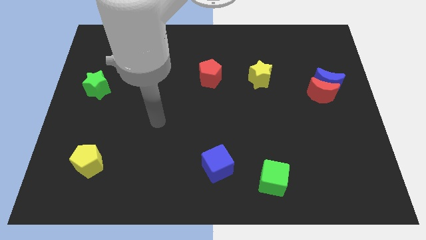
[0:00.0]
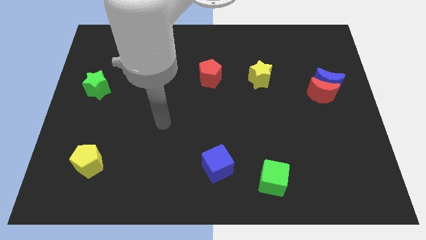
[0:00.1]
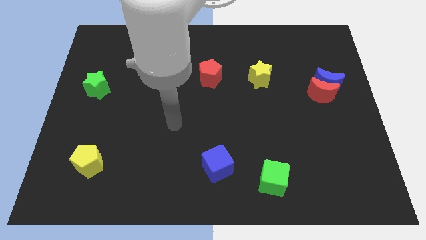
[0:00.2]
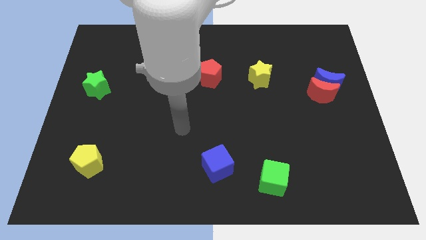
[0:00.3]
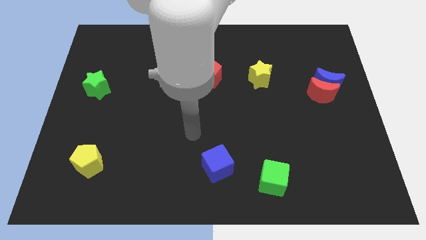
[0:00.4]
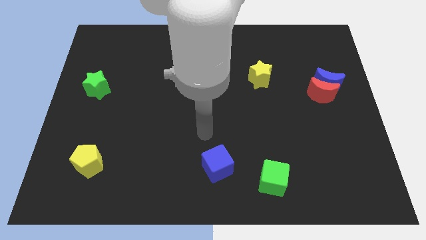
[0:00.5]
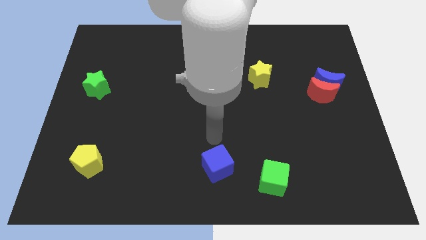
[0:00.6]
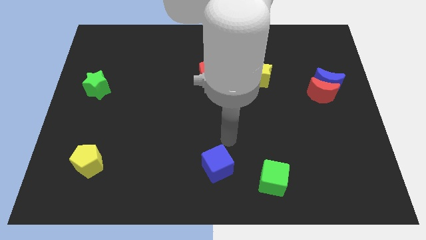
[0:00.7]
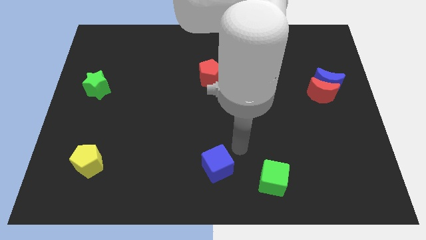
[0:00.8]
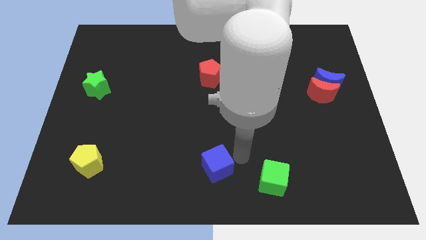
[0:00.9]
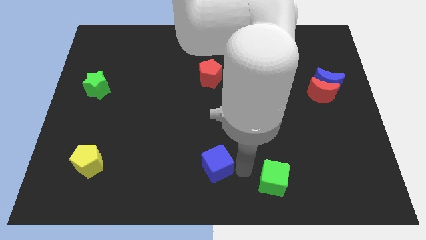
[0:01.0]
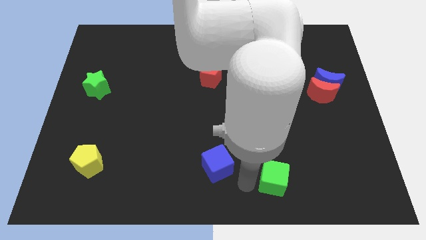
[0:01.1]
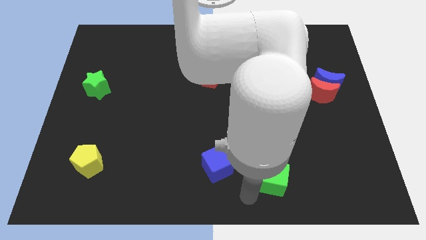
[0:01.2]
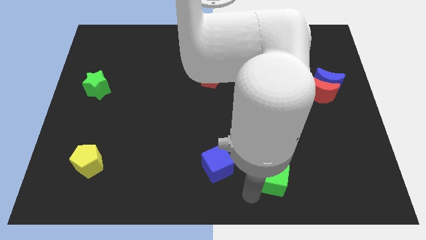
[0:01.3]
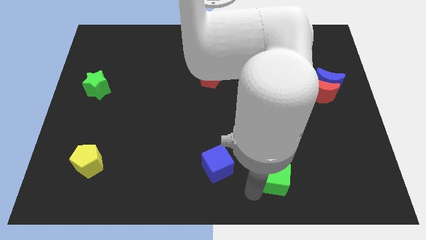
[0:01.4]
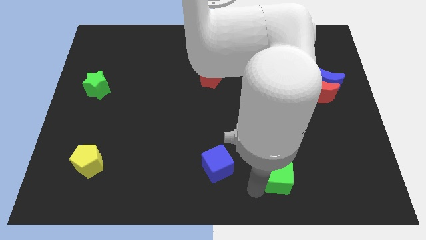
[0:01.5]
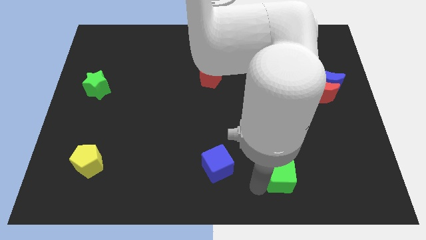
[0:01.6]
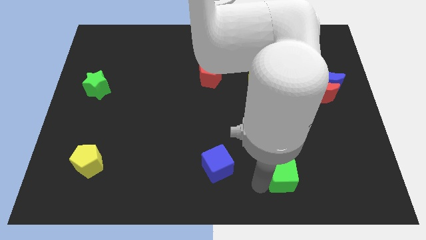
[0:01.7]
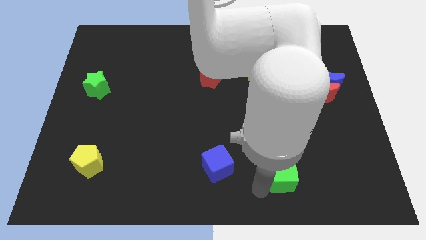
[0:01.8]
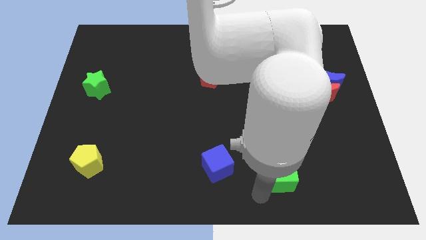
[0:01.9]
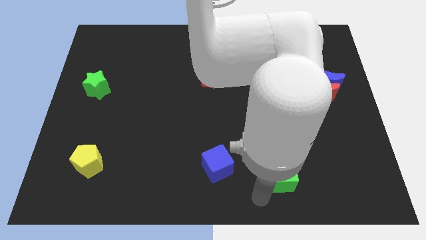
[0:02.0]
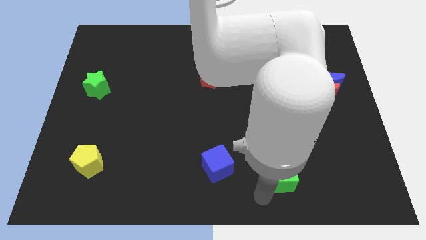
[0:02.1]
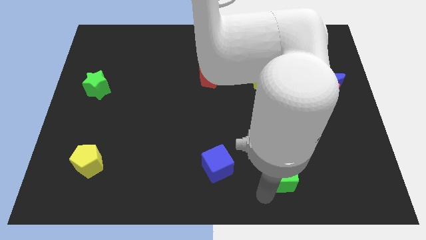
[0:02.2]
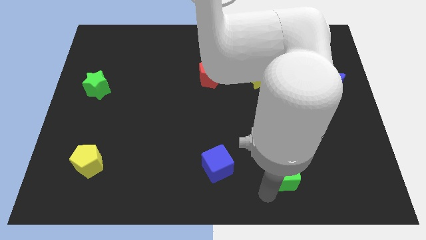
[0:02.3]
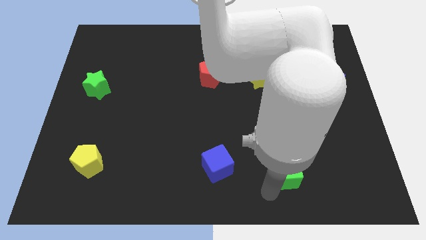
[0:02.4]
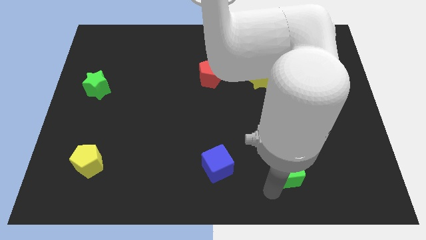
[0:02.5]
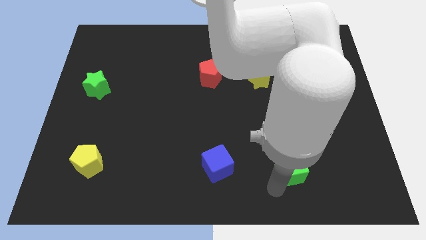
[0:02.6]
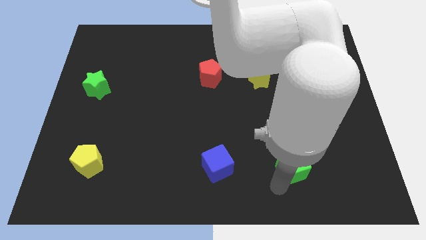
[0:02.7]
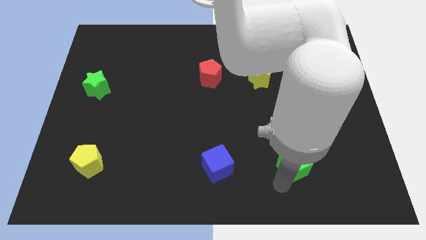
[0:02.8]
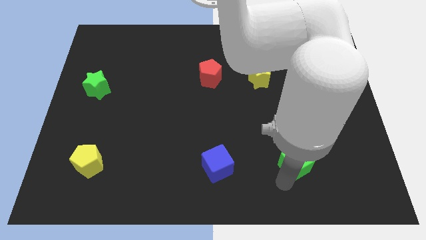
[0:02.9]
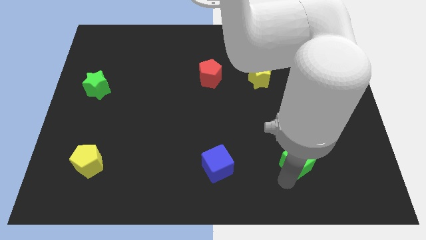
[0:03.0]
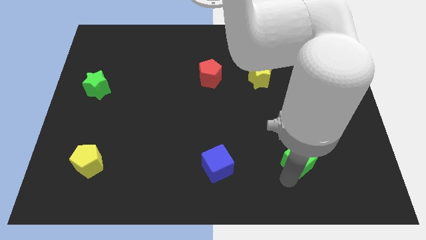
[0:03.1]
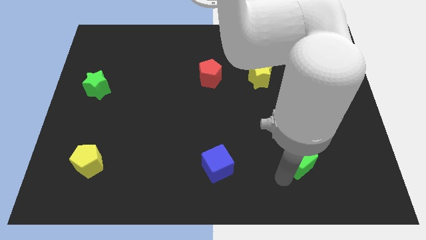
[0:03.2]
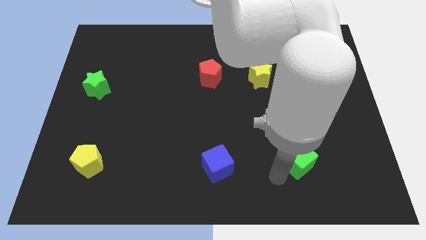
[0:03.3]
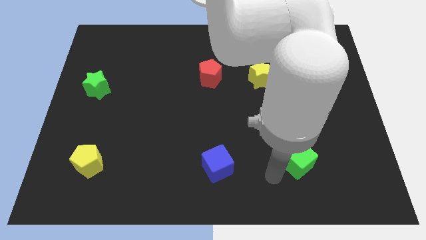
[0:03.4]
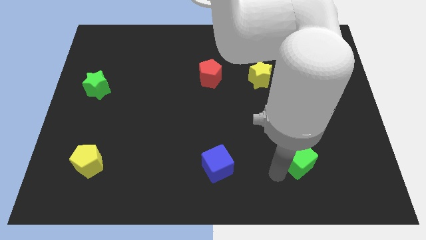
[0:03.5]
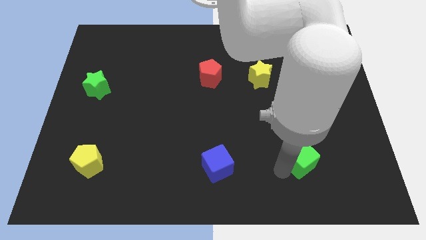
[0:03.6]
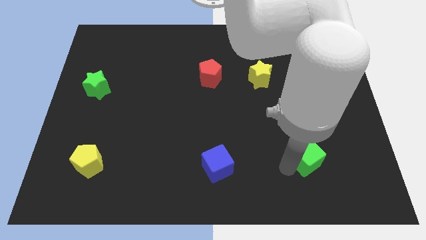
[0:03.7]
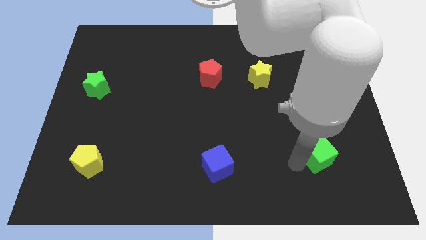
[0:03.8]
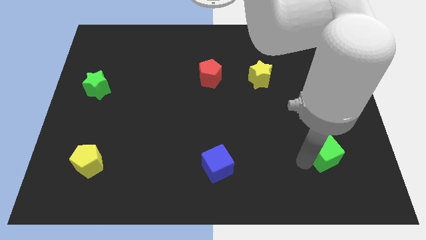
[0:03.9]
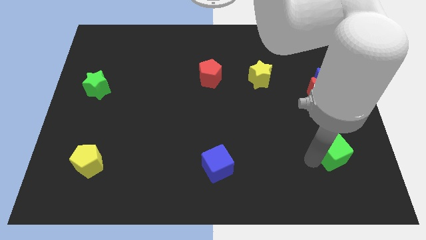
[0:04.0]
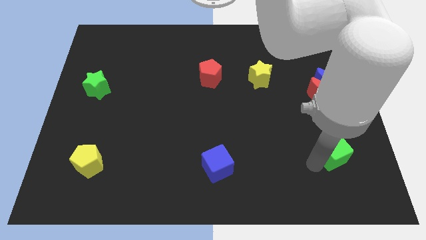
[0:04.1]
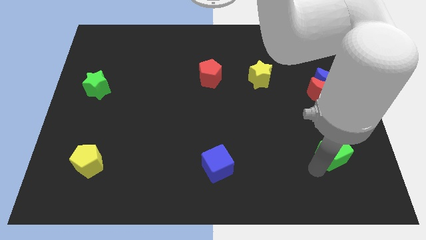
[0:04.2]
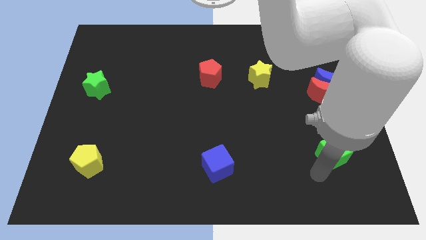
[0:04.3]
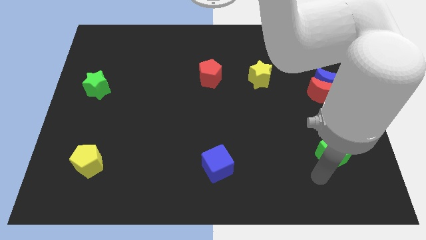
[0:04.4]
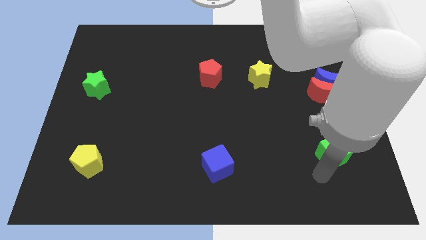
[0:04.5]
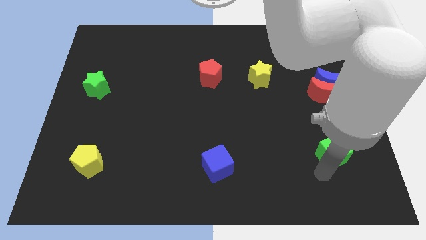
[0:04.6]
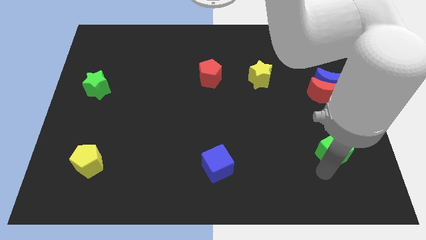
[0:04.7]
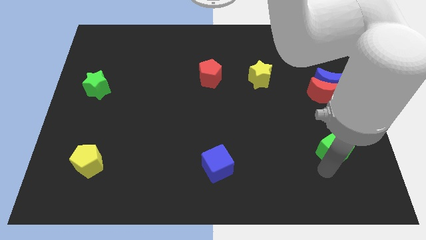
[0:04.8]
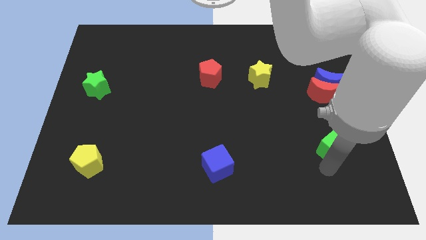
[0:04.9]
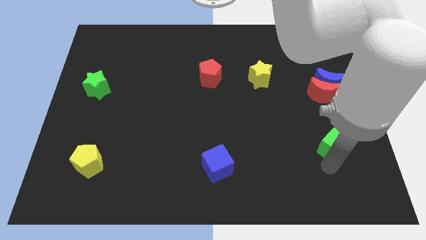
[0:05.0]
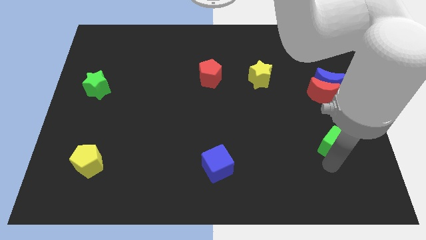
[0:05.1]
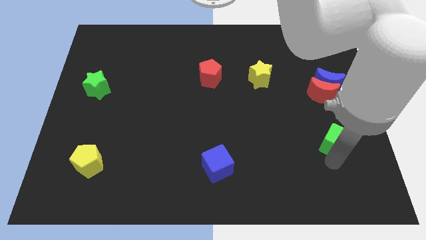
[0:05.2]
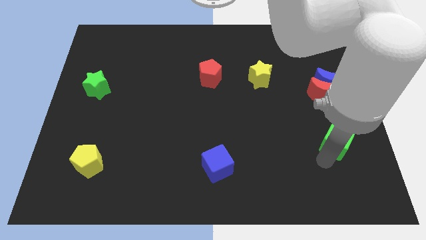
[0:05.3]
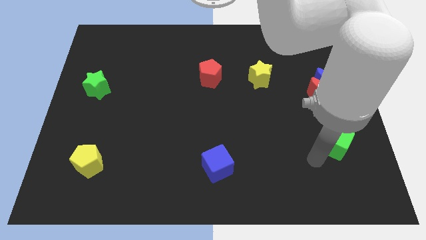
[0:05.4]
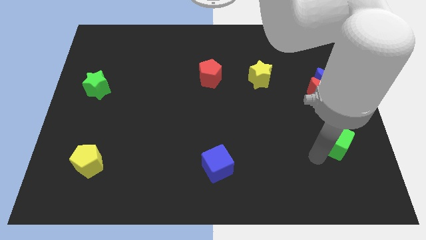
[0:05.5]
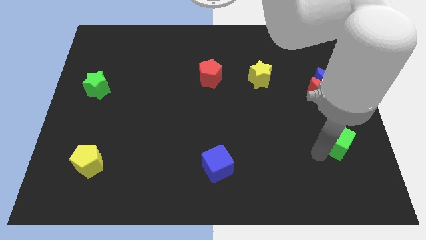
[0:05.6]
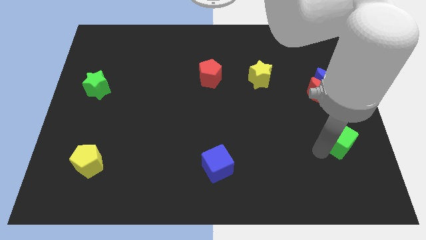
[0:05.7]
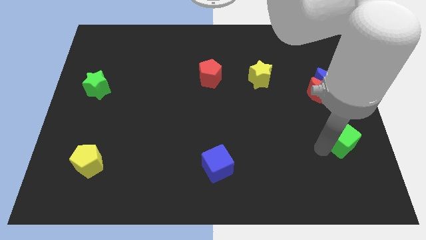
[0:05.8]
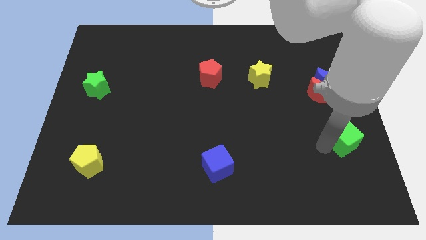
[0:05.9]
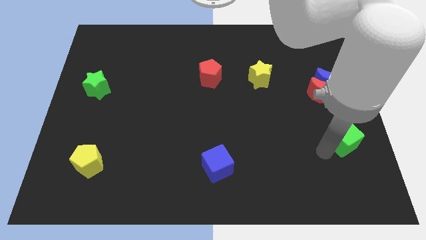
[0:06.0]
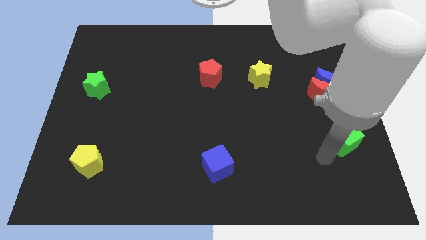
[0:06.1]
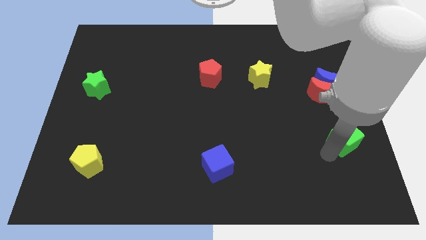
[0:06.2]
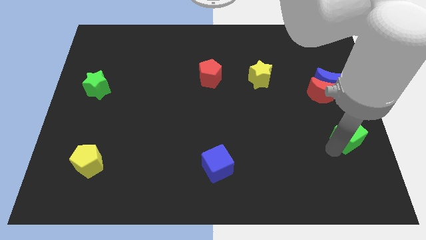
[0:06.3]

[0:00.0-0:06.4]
slide the green cube to the right side of the board

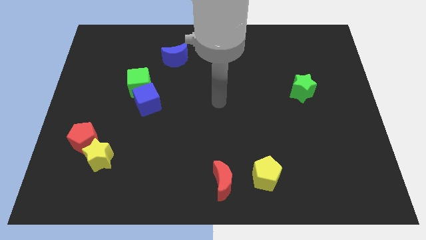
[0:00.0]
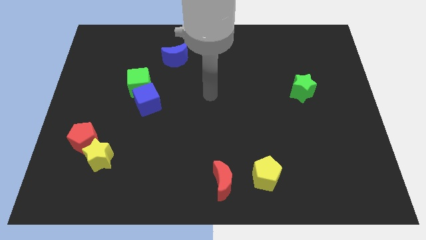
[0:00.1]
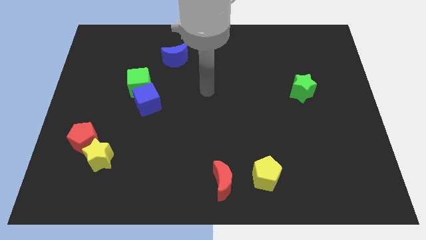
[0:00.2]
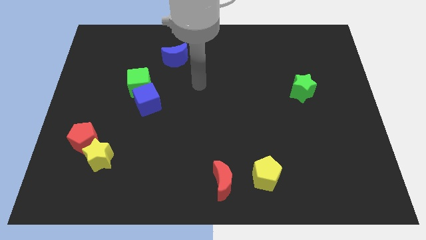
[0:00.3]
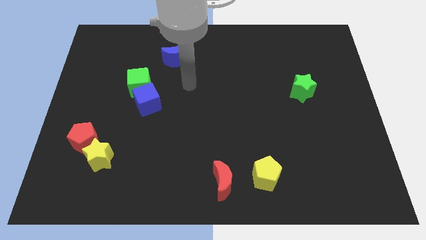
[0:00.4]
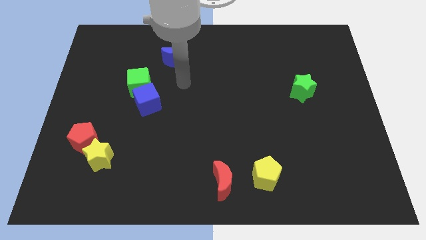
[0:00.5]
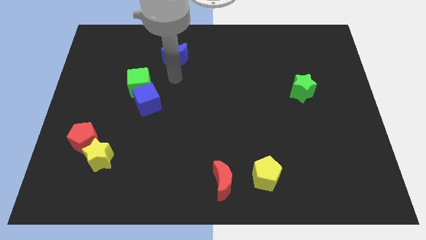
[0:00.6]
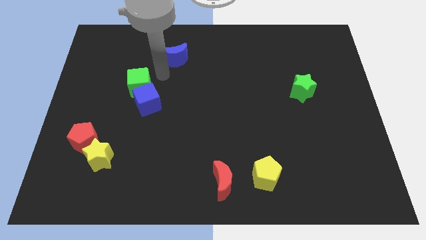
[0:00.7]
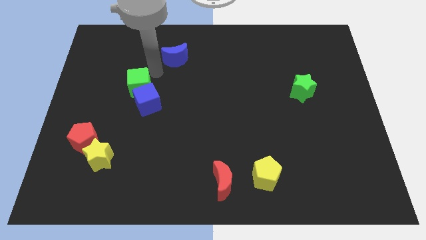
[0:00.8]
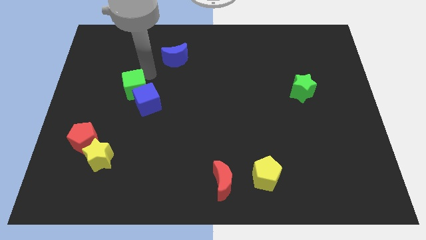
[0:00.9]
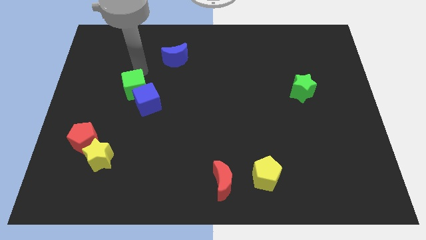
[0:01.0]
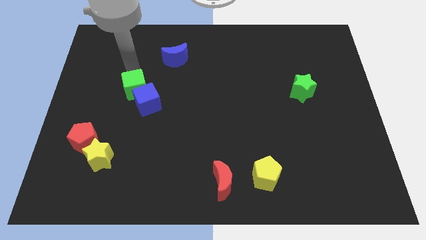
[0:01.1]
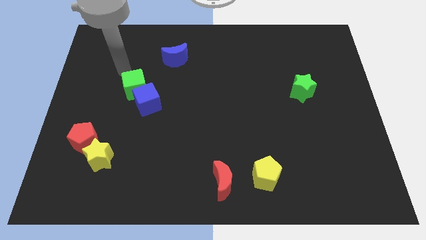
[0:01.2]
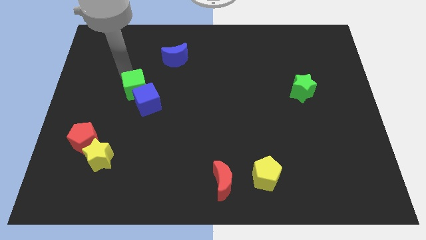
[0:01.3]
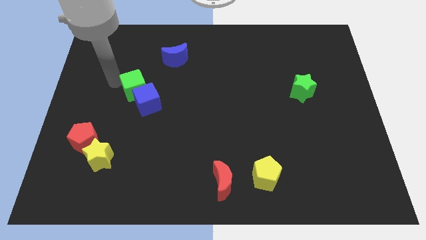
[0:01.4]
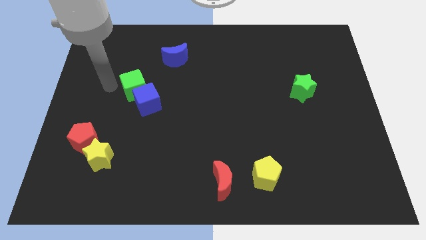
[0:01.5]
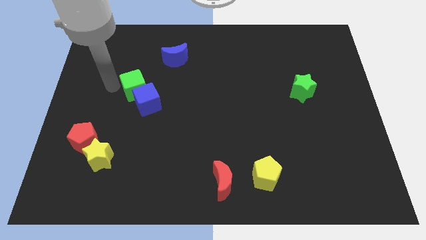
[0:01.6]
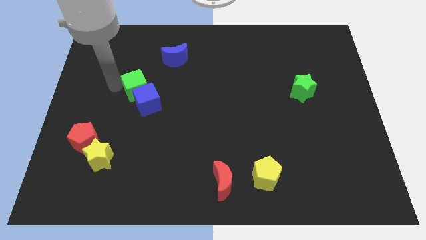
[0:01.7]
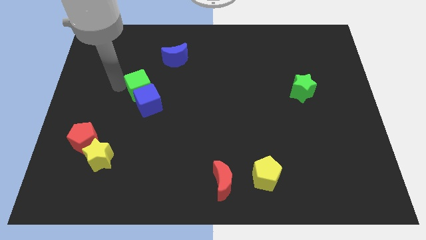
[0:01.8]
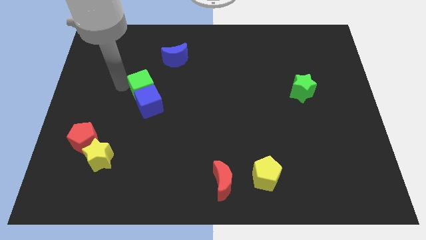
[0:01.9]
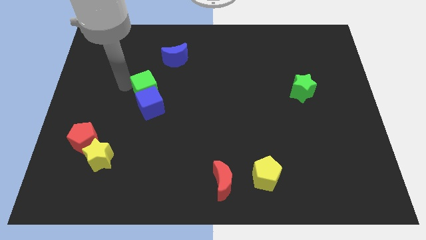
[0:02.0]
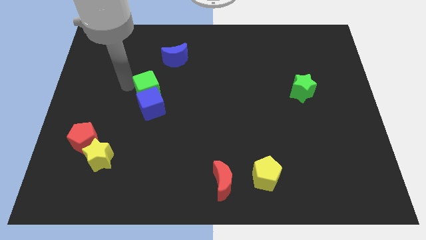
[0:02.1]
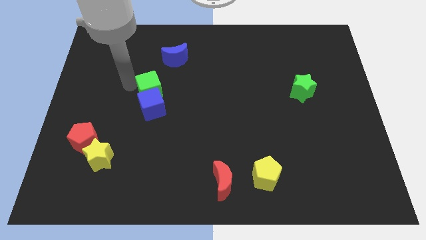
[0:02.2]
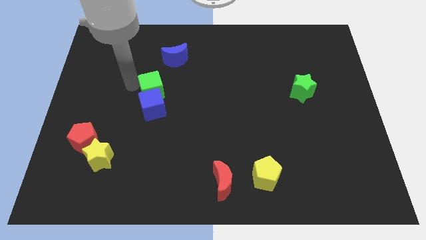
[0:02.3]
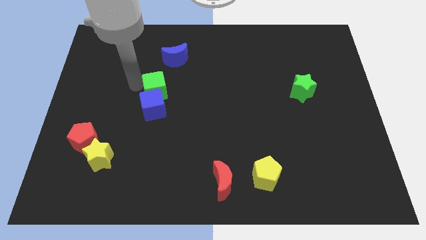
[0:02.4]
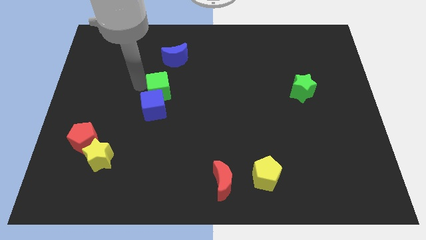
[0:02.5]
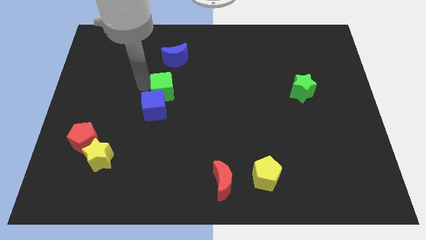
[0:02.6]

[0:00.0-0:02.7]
slide the green cube to the middle
